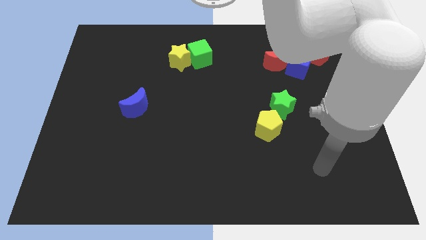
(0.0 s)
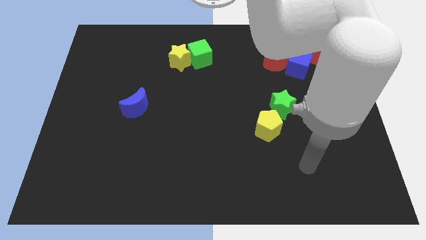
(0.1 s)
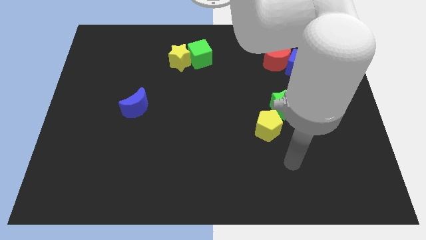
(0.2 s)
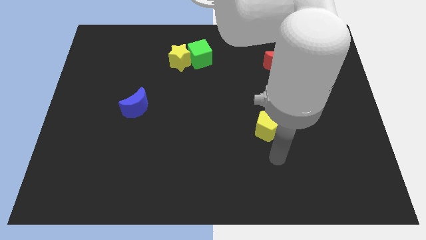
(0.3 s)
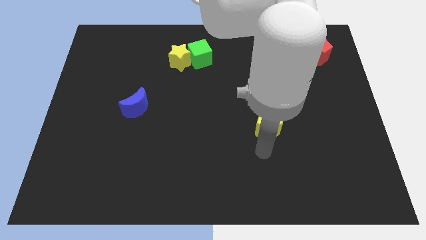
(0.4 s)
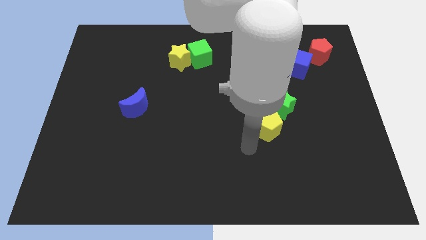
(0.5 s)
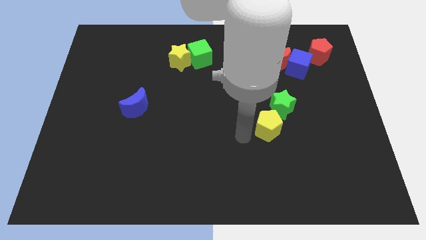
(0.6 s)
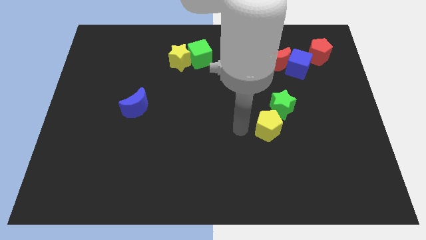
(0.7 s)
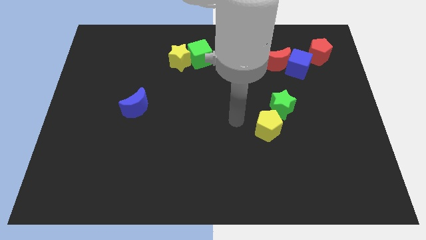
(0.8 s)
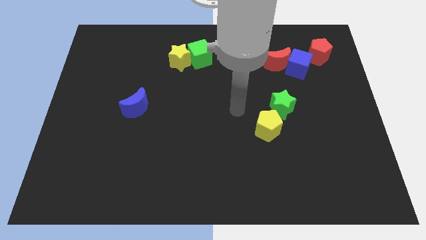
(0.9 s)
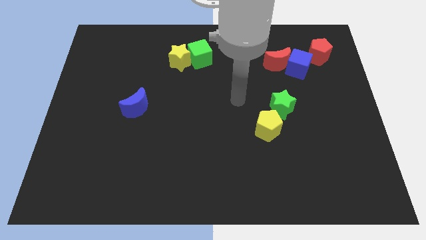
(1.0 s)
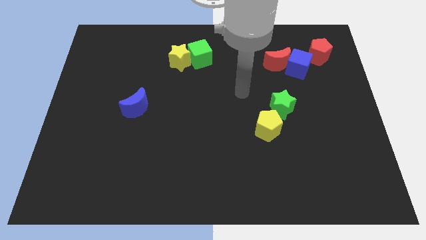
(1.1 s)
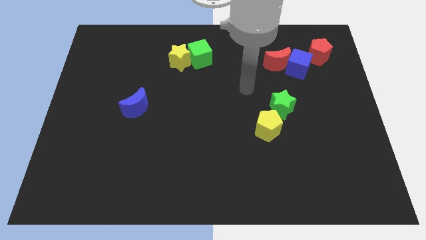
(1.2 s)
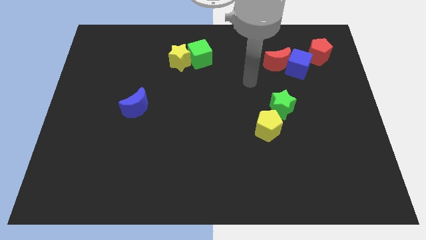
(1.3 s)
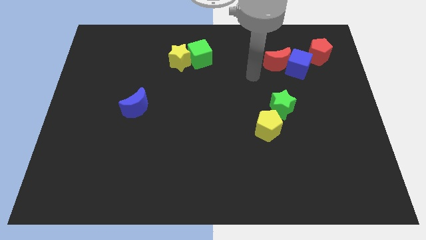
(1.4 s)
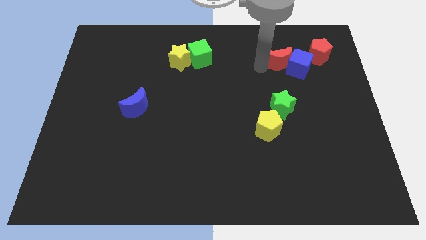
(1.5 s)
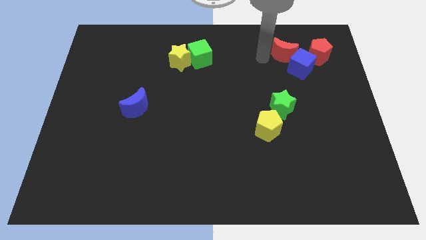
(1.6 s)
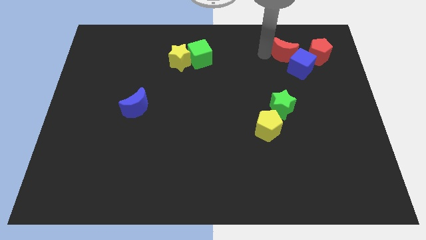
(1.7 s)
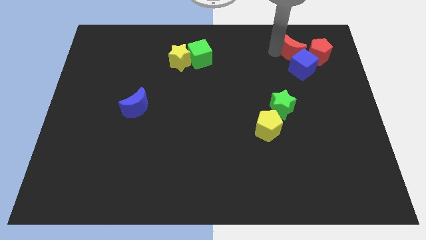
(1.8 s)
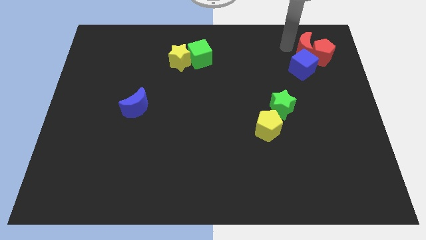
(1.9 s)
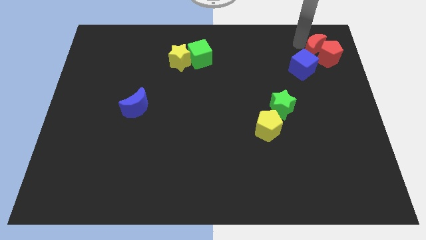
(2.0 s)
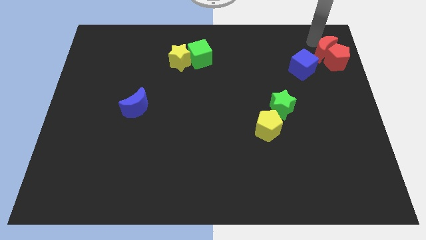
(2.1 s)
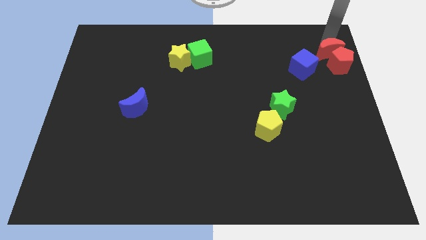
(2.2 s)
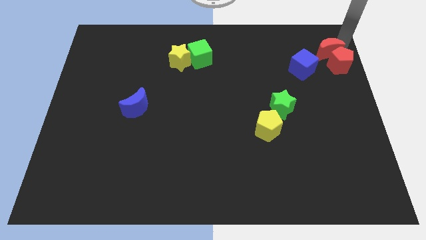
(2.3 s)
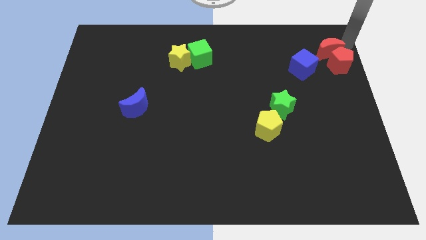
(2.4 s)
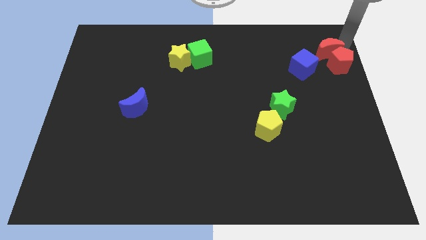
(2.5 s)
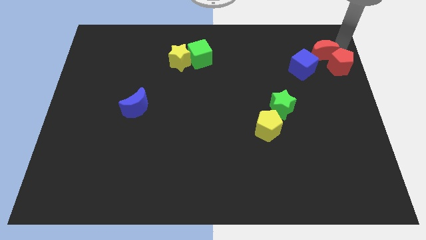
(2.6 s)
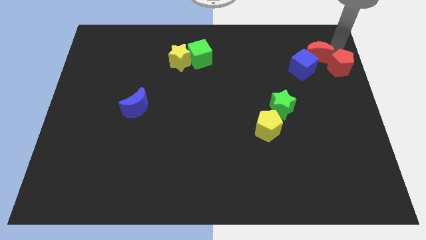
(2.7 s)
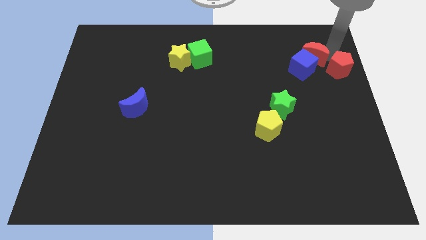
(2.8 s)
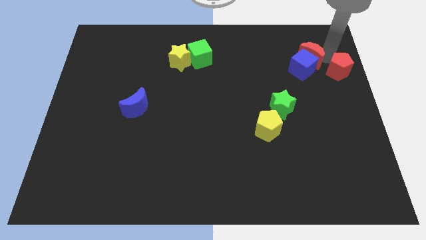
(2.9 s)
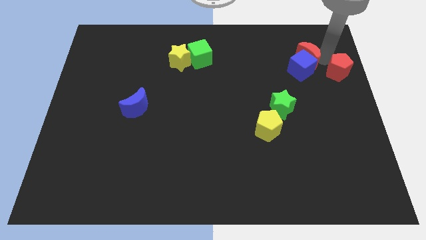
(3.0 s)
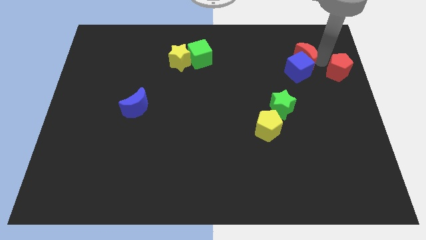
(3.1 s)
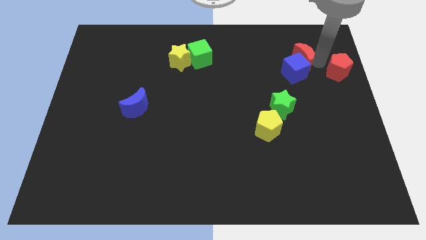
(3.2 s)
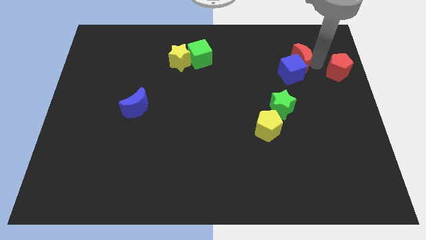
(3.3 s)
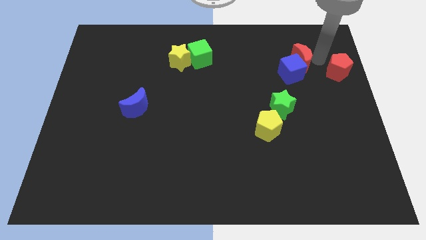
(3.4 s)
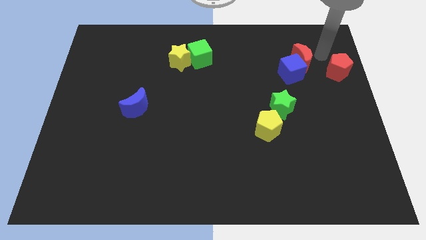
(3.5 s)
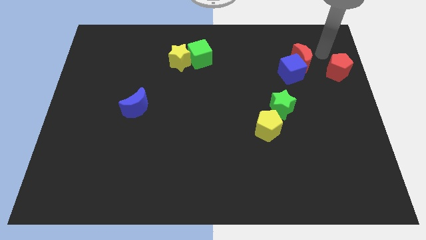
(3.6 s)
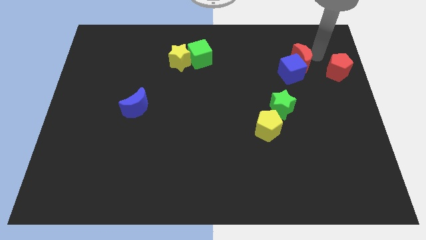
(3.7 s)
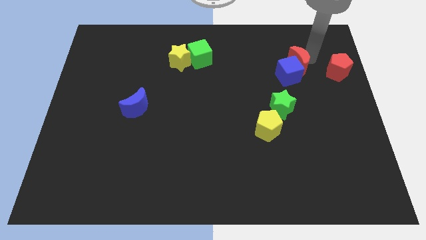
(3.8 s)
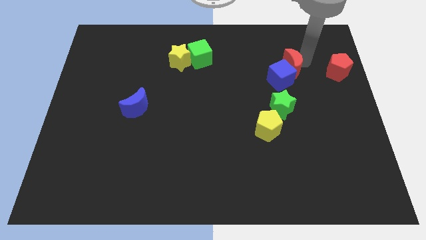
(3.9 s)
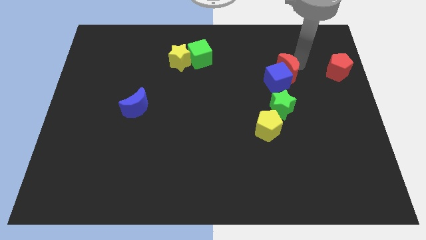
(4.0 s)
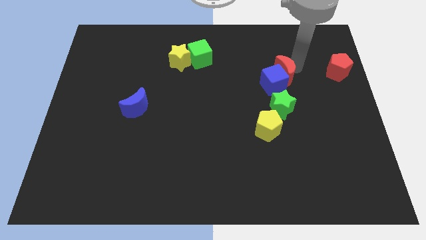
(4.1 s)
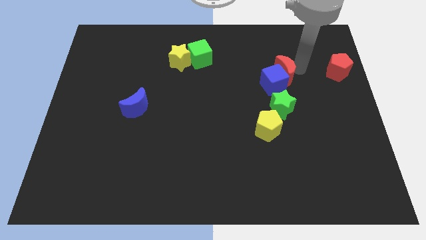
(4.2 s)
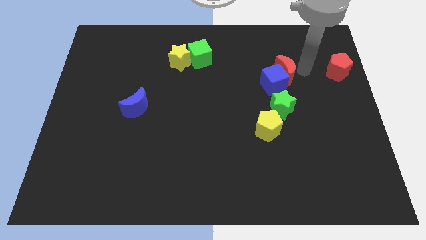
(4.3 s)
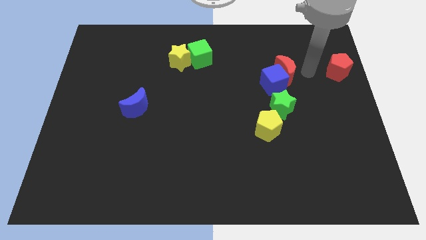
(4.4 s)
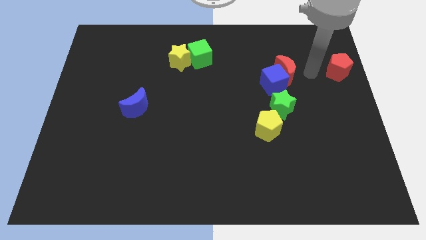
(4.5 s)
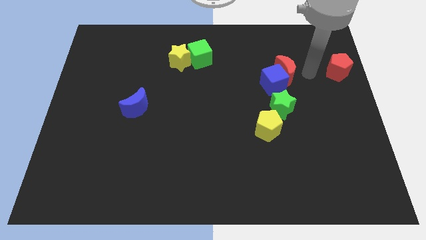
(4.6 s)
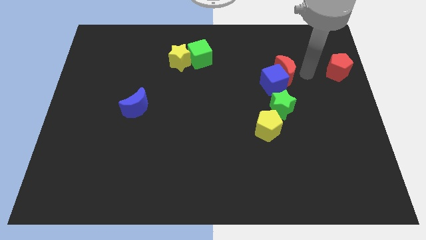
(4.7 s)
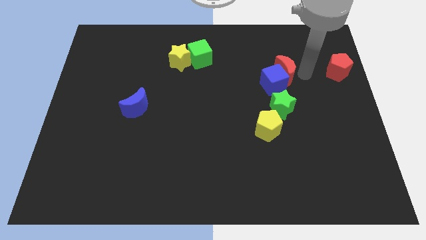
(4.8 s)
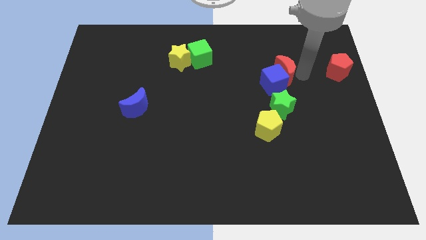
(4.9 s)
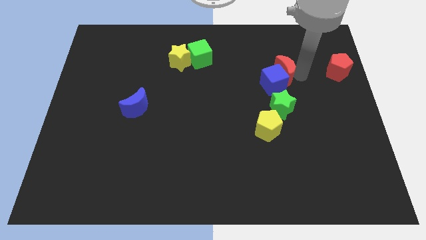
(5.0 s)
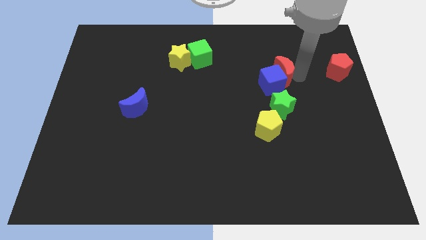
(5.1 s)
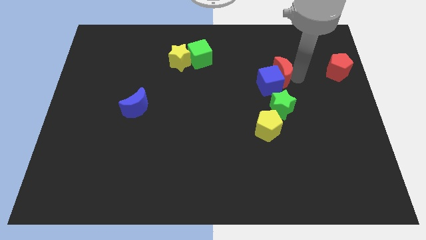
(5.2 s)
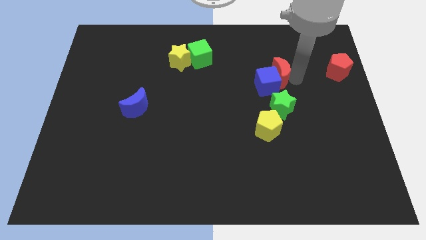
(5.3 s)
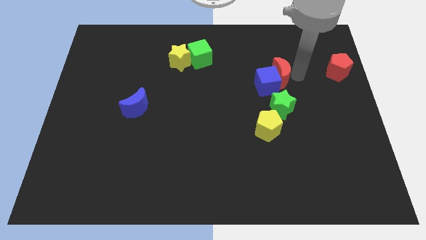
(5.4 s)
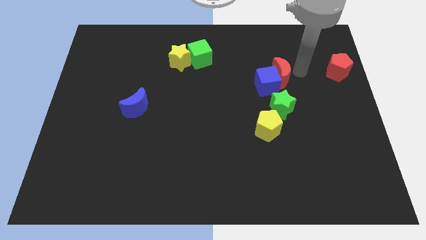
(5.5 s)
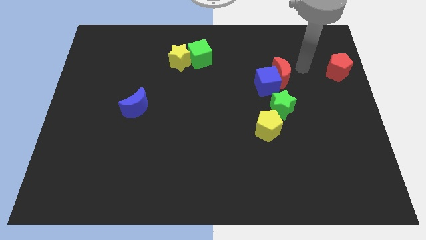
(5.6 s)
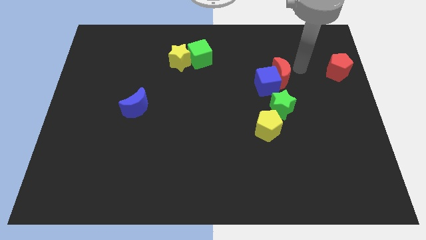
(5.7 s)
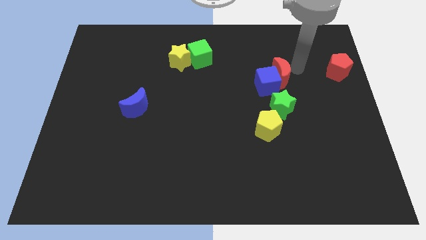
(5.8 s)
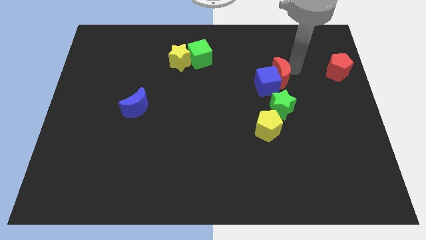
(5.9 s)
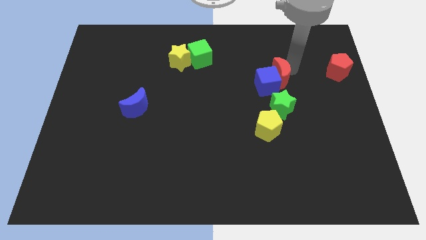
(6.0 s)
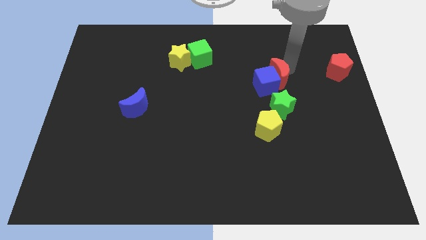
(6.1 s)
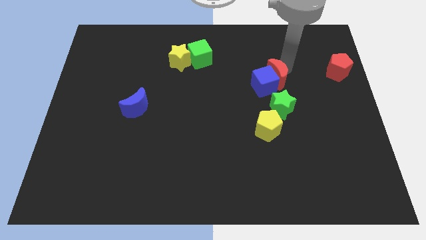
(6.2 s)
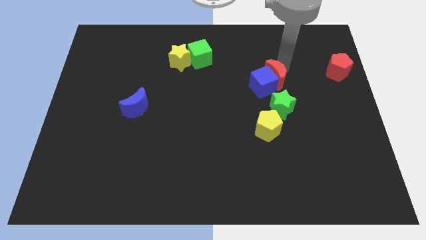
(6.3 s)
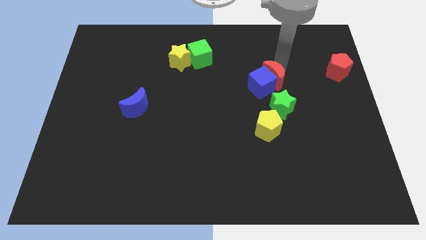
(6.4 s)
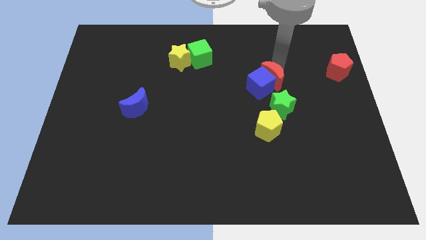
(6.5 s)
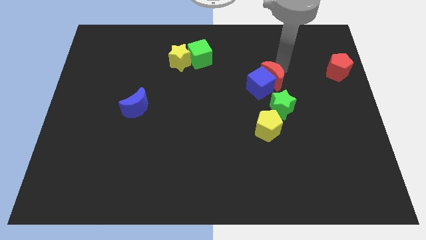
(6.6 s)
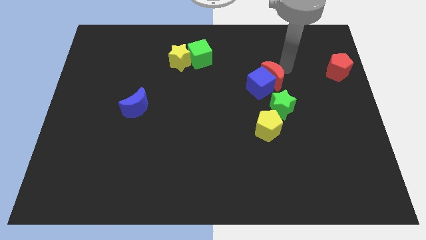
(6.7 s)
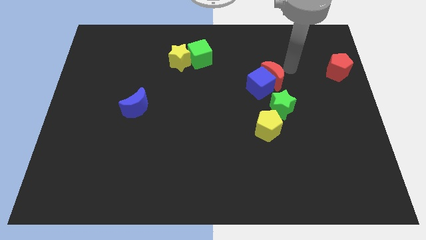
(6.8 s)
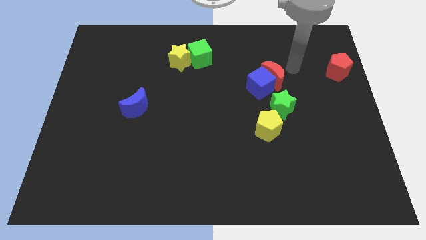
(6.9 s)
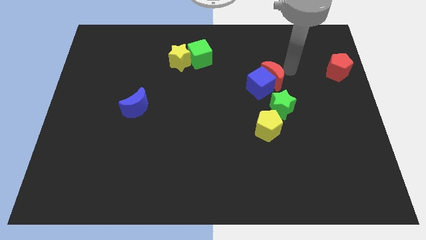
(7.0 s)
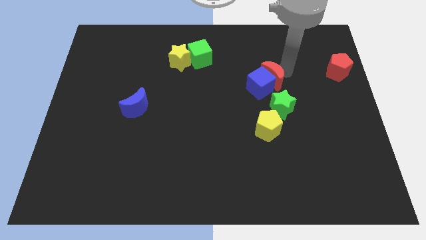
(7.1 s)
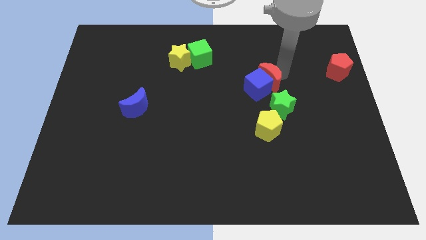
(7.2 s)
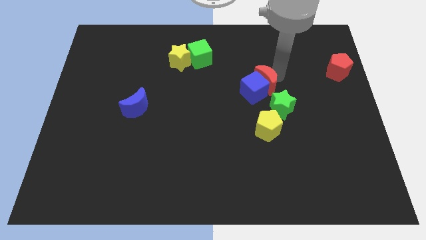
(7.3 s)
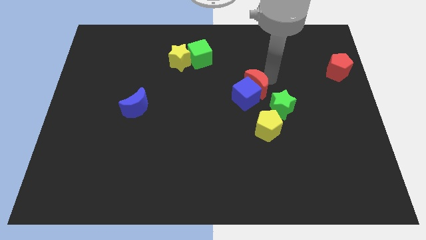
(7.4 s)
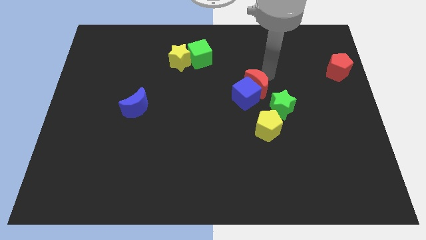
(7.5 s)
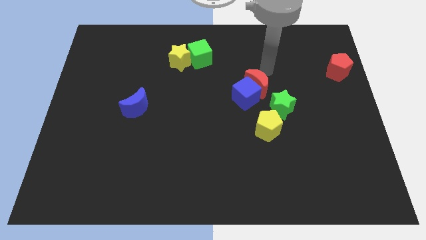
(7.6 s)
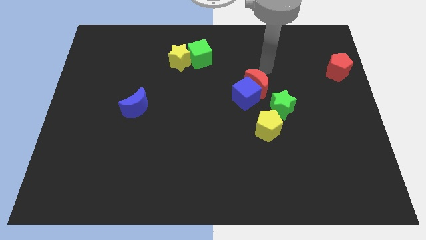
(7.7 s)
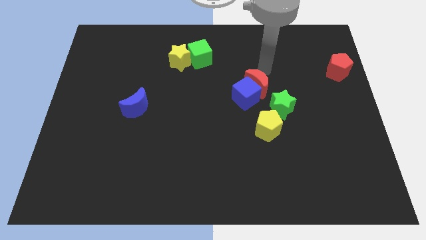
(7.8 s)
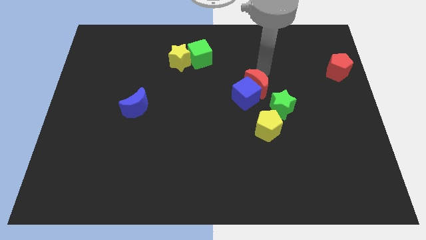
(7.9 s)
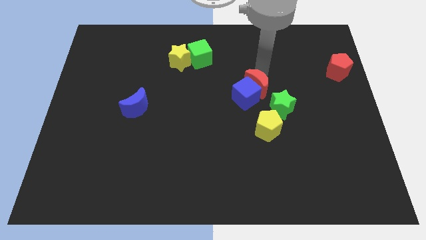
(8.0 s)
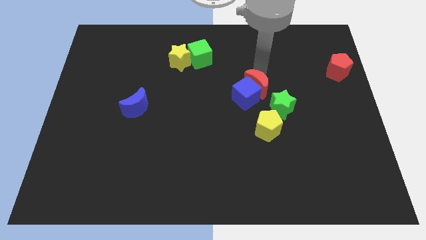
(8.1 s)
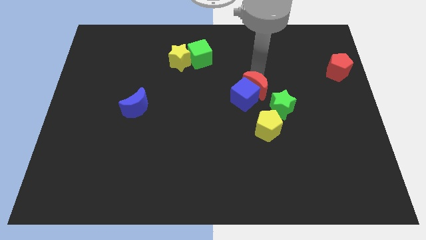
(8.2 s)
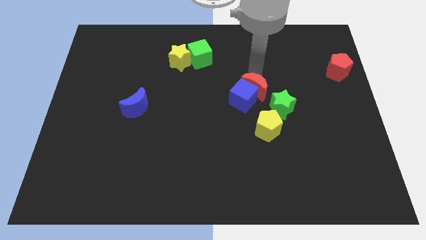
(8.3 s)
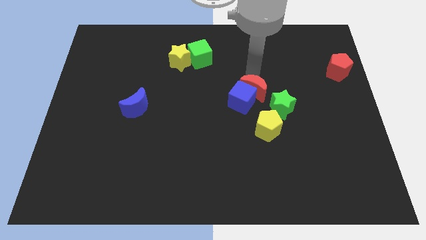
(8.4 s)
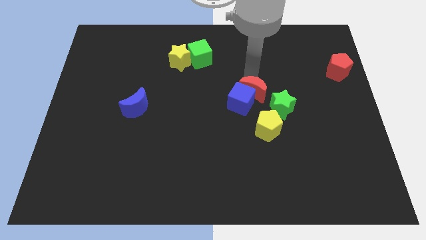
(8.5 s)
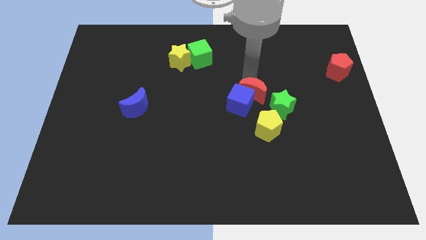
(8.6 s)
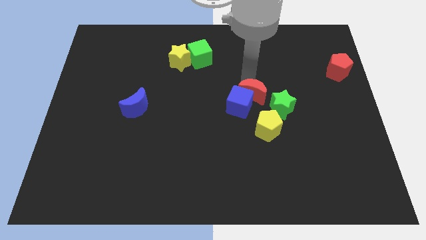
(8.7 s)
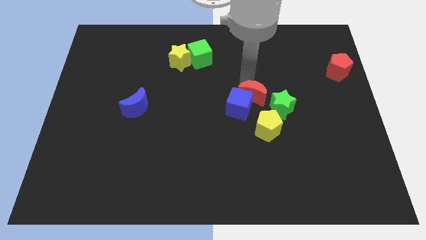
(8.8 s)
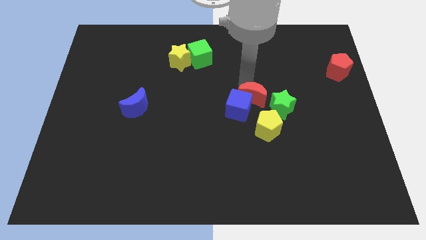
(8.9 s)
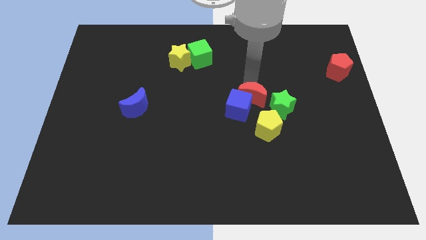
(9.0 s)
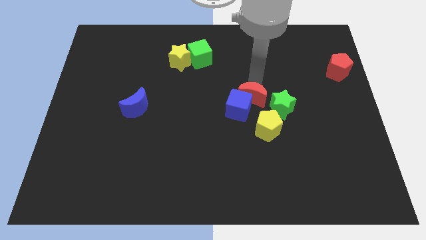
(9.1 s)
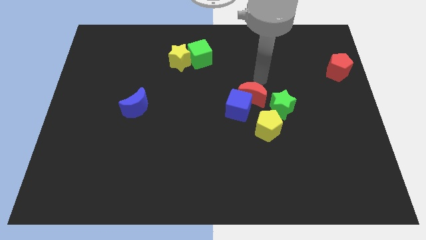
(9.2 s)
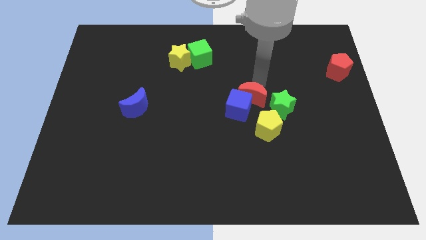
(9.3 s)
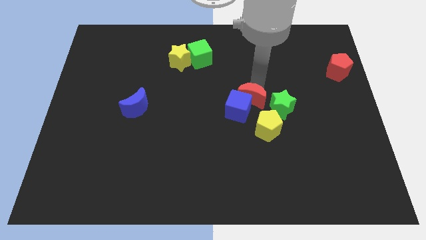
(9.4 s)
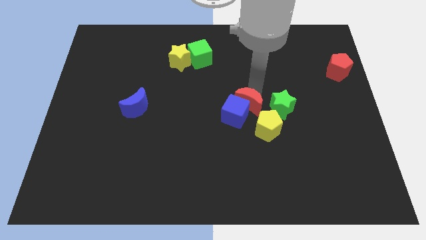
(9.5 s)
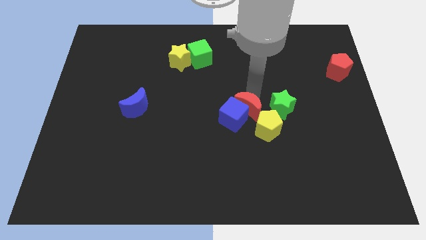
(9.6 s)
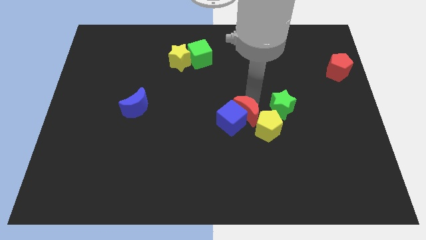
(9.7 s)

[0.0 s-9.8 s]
put the red moon diagonally down and to the left of the green star
